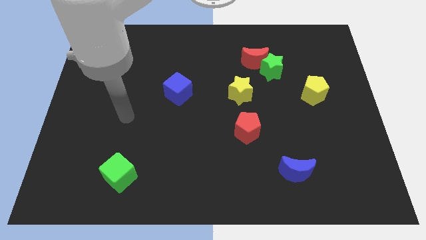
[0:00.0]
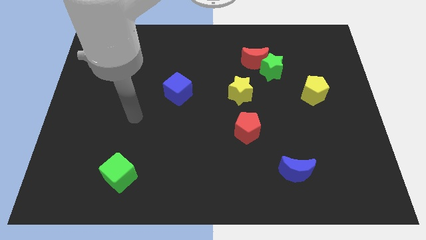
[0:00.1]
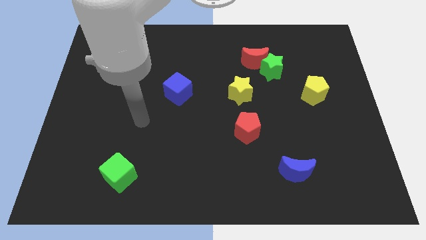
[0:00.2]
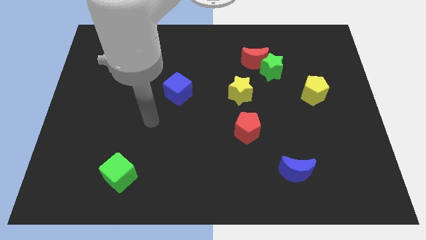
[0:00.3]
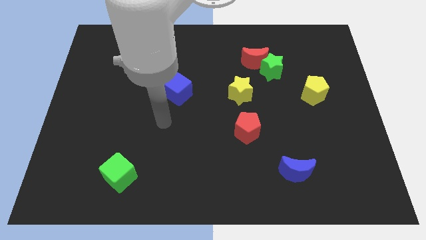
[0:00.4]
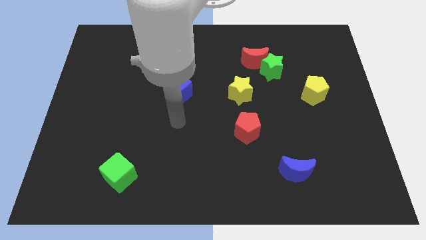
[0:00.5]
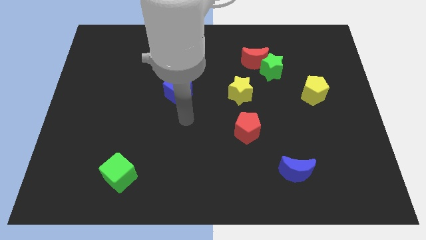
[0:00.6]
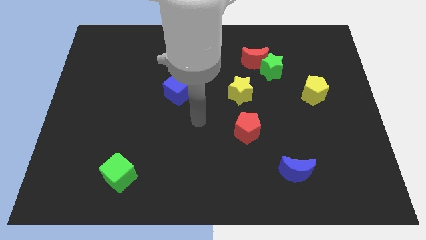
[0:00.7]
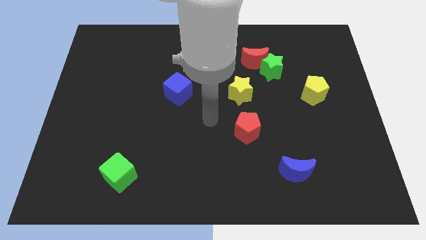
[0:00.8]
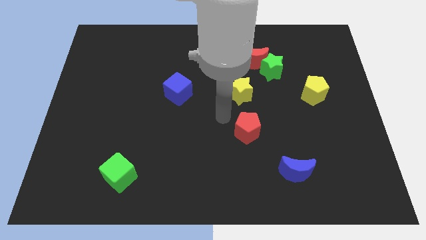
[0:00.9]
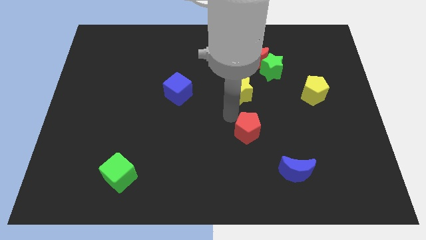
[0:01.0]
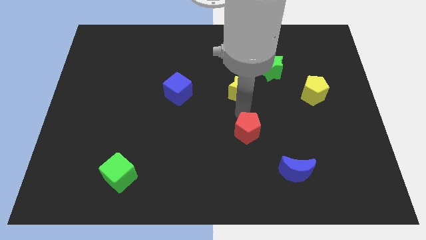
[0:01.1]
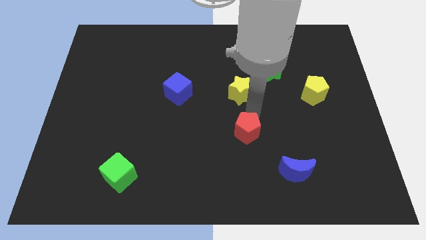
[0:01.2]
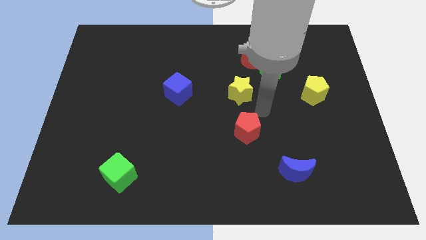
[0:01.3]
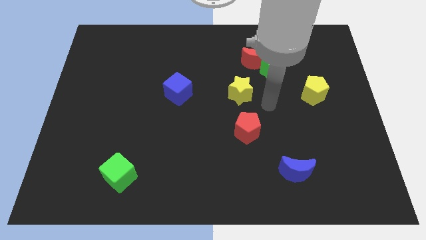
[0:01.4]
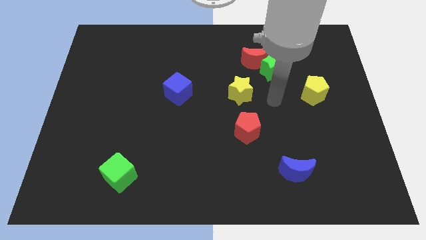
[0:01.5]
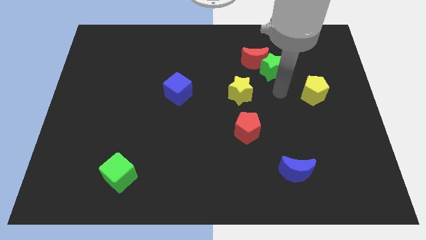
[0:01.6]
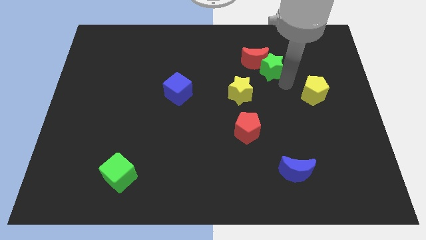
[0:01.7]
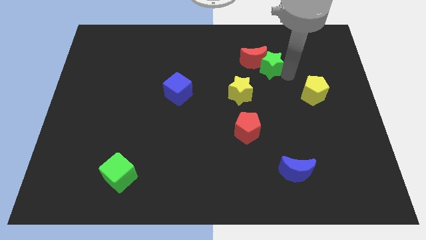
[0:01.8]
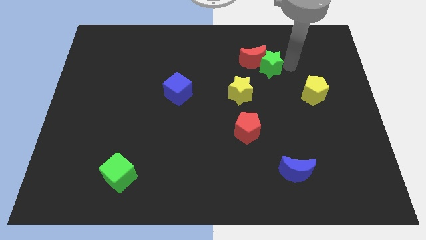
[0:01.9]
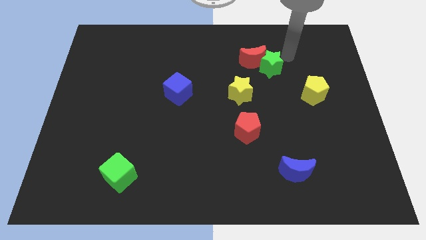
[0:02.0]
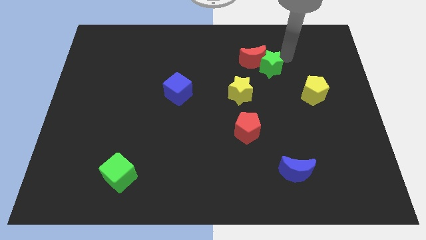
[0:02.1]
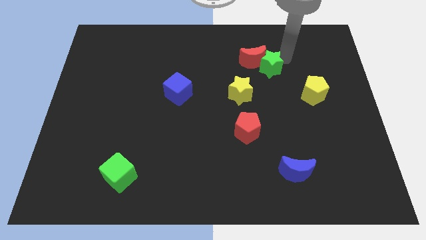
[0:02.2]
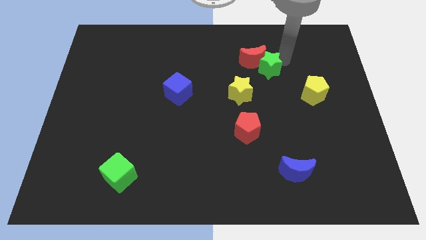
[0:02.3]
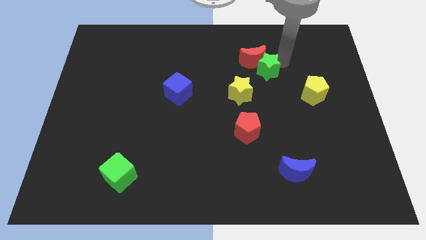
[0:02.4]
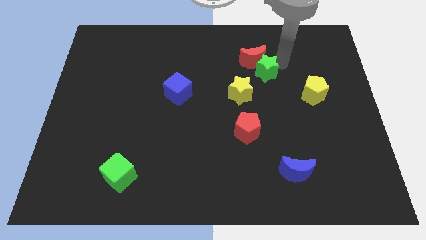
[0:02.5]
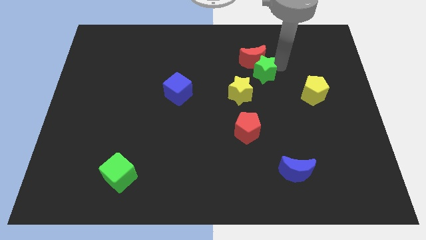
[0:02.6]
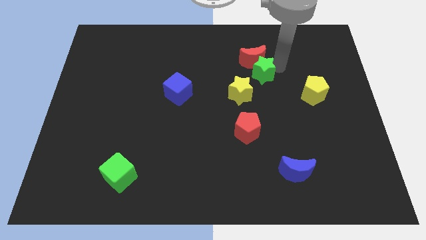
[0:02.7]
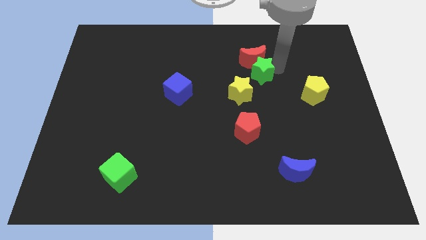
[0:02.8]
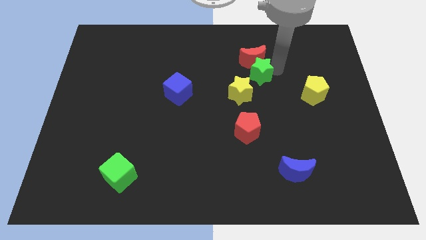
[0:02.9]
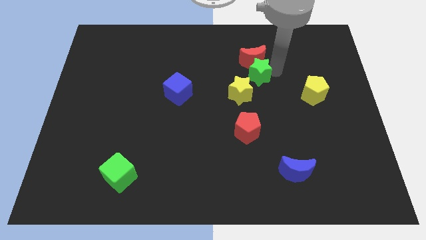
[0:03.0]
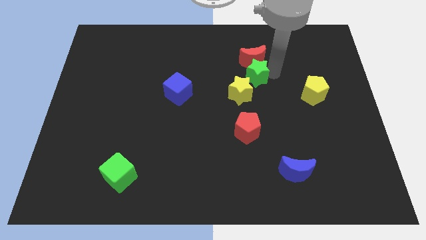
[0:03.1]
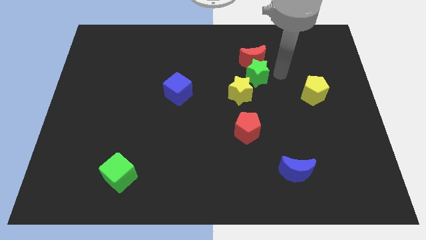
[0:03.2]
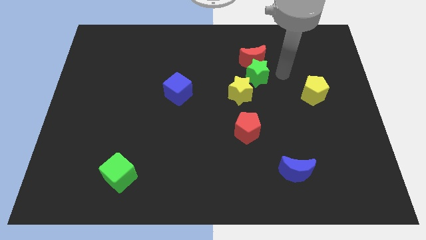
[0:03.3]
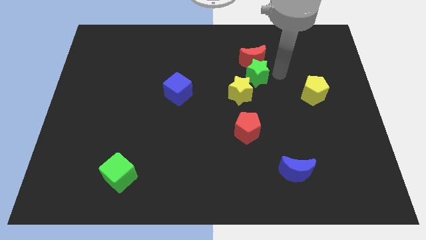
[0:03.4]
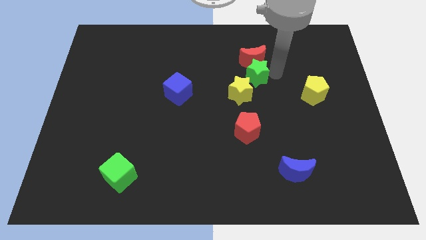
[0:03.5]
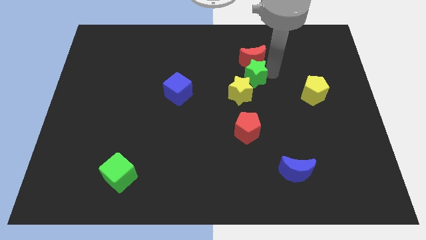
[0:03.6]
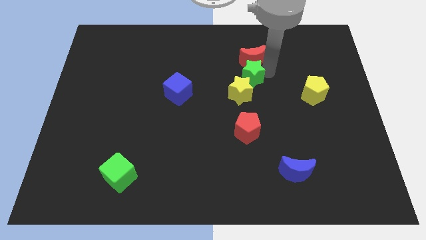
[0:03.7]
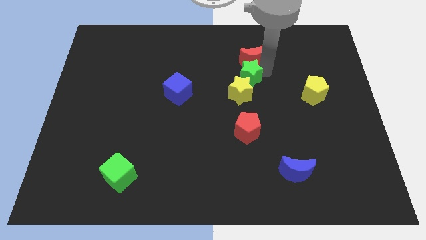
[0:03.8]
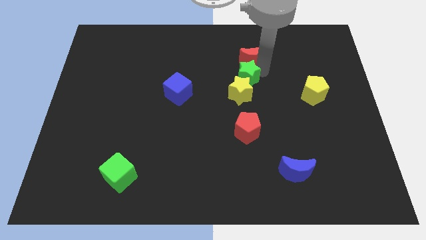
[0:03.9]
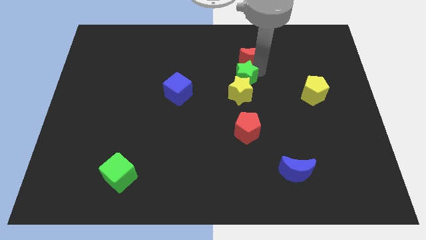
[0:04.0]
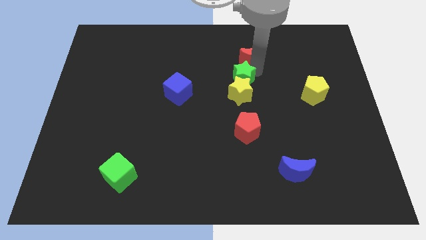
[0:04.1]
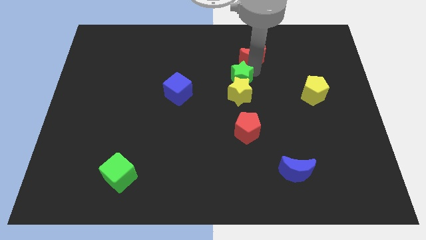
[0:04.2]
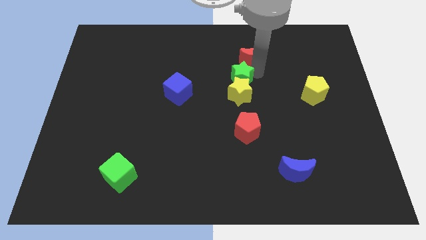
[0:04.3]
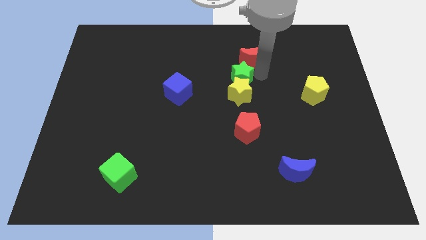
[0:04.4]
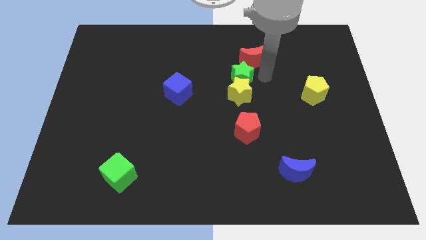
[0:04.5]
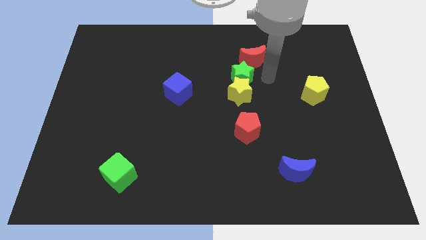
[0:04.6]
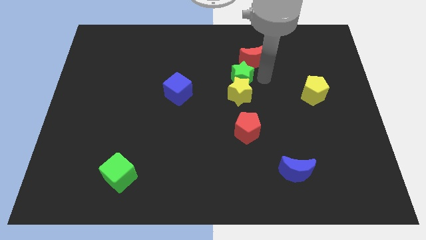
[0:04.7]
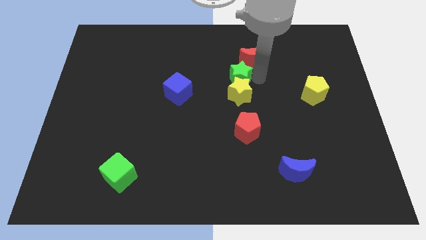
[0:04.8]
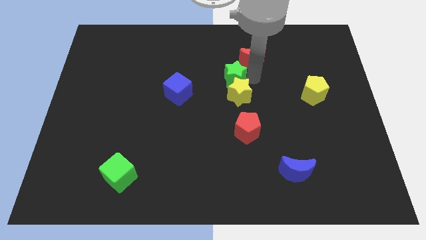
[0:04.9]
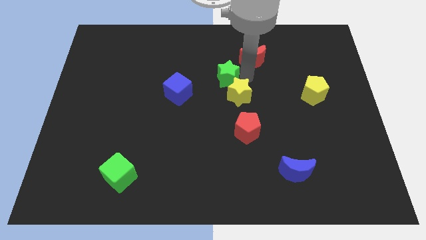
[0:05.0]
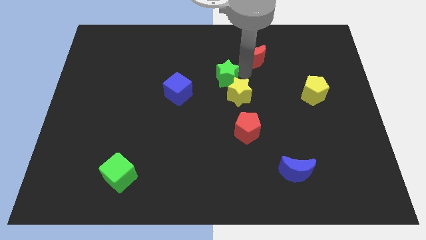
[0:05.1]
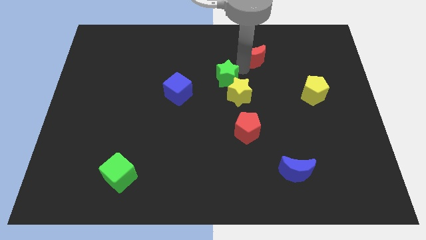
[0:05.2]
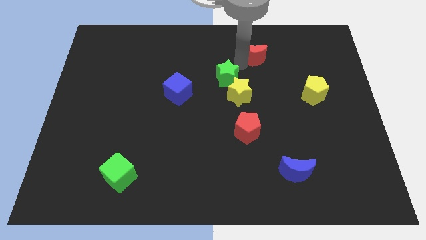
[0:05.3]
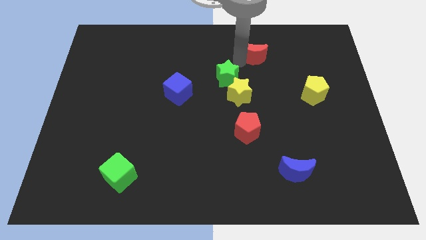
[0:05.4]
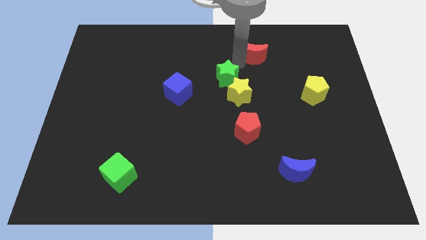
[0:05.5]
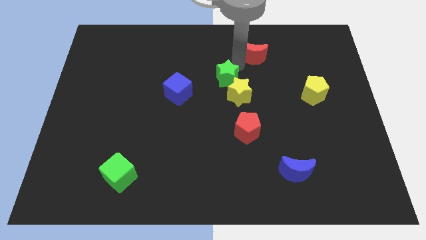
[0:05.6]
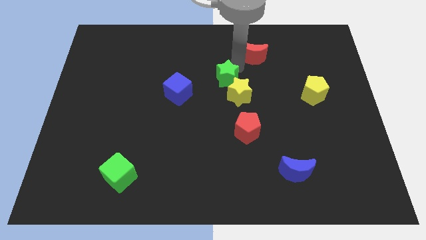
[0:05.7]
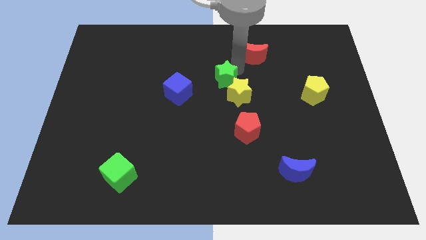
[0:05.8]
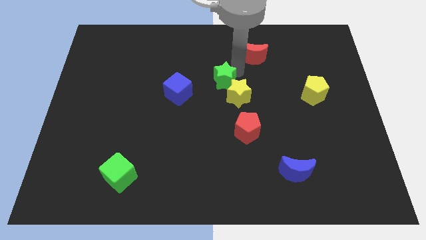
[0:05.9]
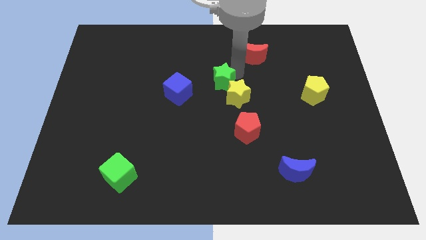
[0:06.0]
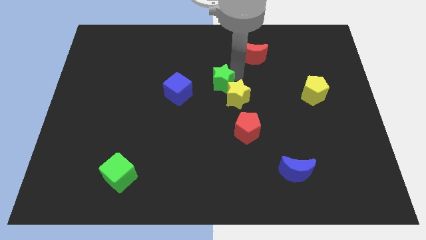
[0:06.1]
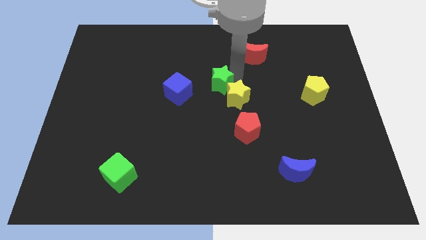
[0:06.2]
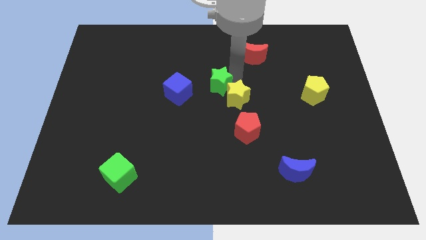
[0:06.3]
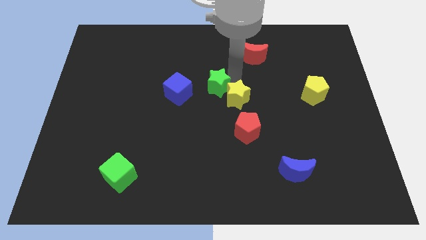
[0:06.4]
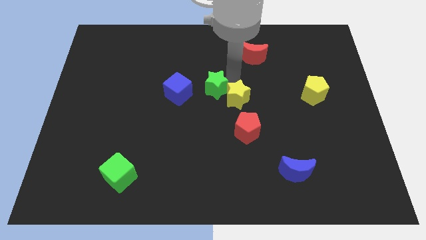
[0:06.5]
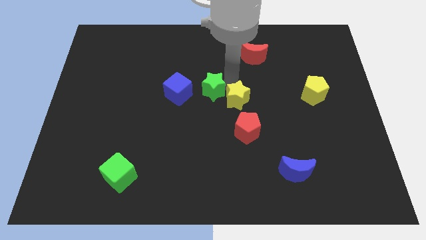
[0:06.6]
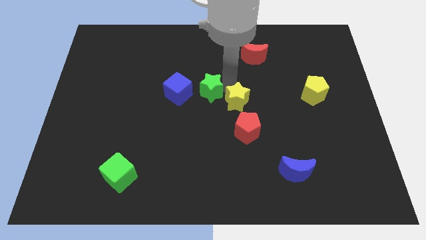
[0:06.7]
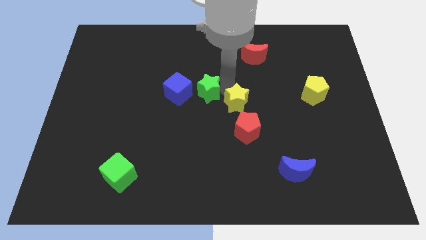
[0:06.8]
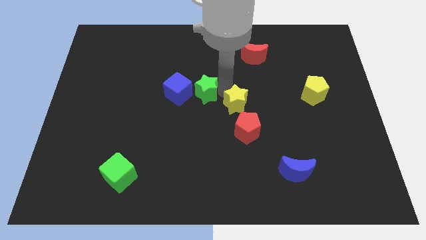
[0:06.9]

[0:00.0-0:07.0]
move the green star to the bottom right of the blue cube
